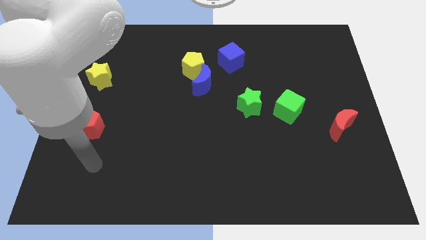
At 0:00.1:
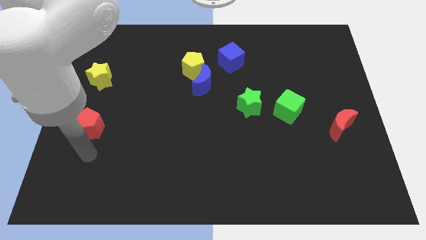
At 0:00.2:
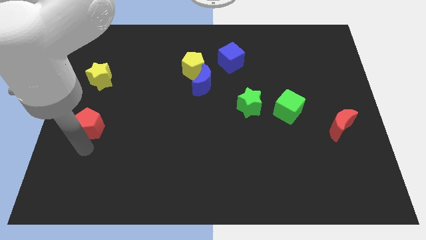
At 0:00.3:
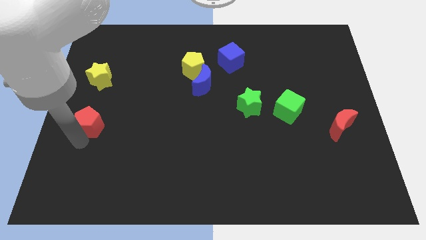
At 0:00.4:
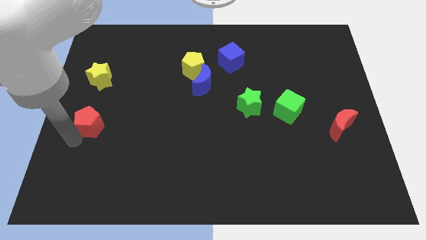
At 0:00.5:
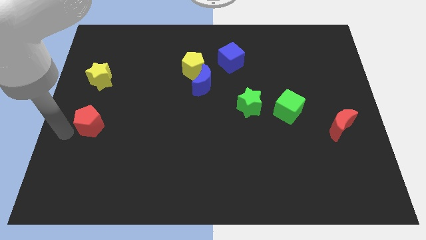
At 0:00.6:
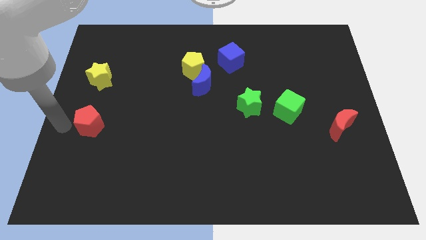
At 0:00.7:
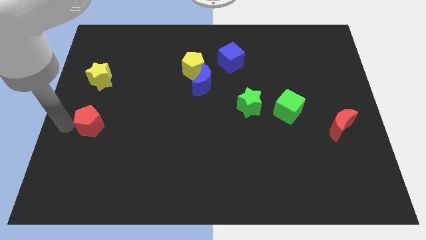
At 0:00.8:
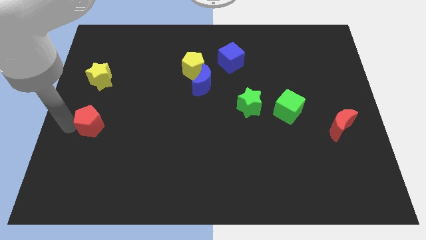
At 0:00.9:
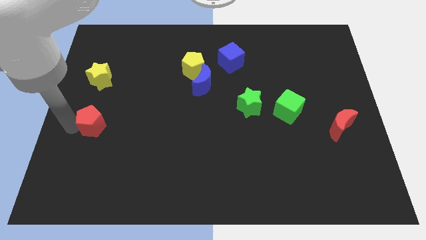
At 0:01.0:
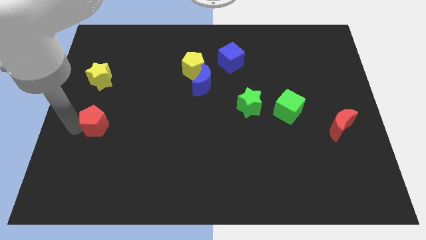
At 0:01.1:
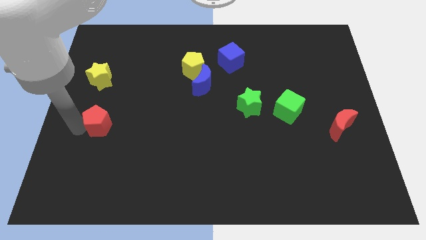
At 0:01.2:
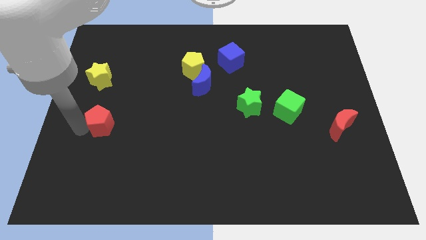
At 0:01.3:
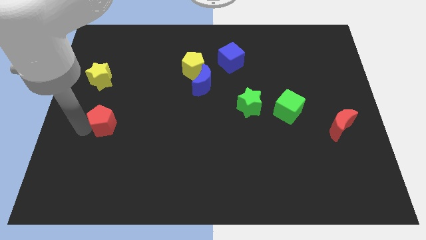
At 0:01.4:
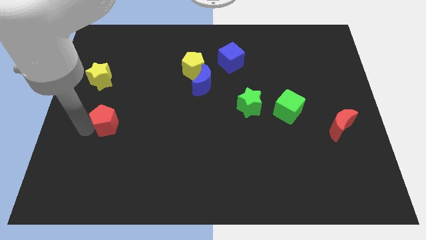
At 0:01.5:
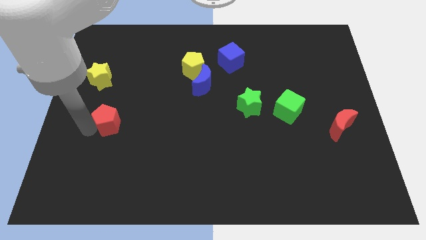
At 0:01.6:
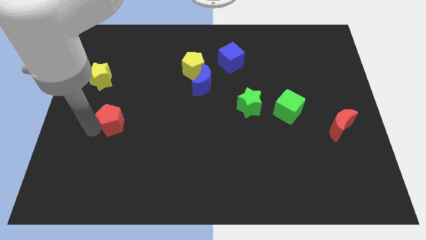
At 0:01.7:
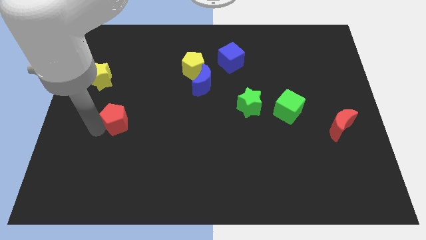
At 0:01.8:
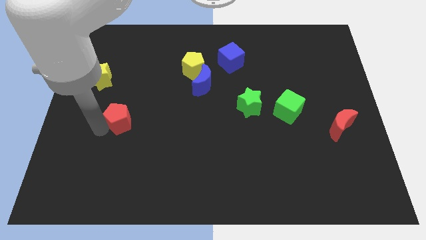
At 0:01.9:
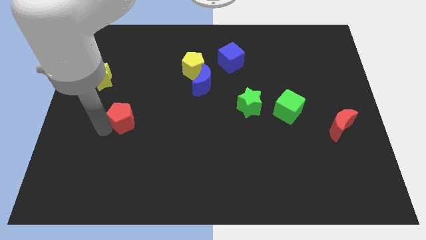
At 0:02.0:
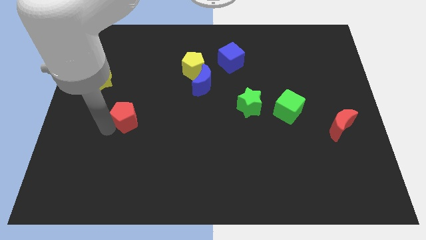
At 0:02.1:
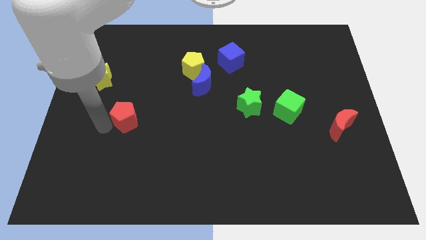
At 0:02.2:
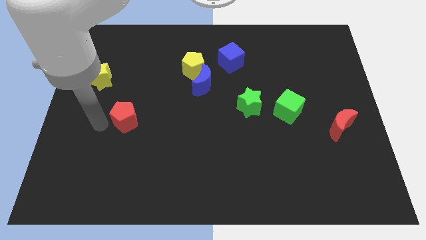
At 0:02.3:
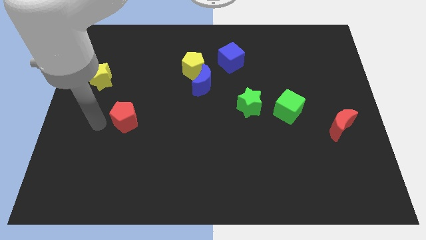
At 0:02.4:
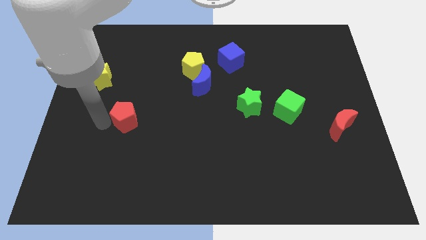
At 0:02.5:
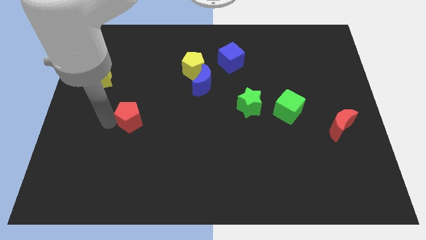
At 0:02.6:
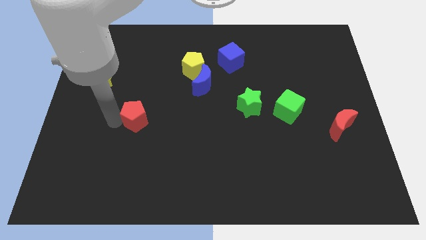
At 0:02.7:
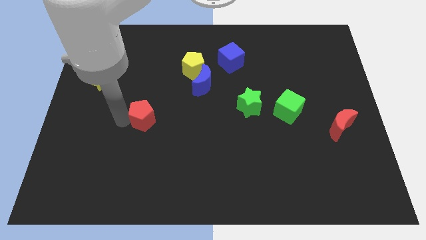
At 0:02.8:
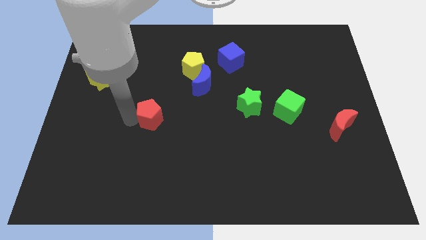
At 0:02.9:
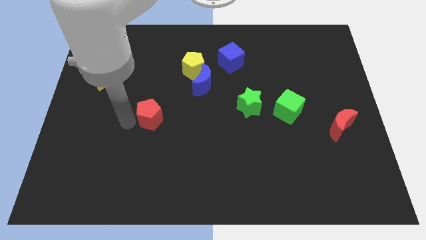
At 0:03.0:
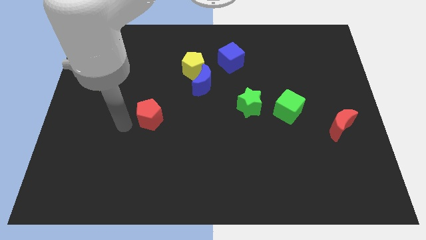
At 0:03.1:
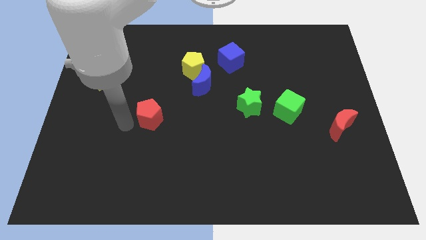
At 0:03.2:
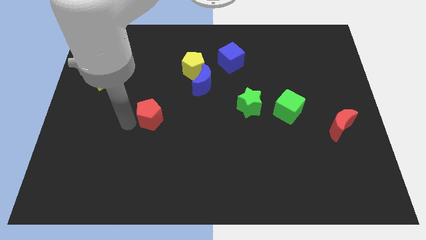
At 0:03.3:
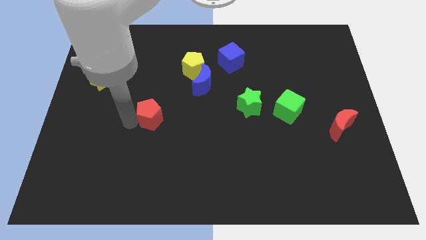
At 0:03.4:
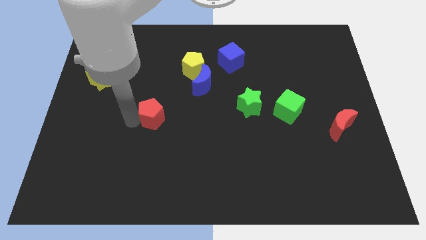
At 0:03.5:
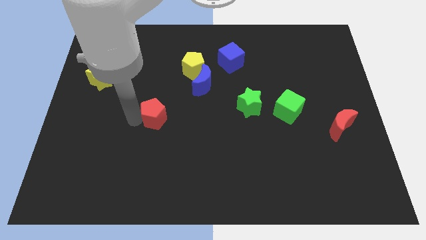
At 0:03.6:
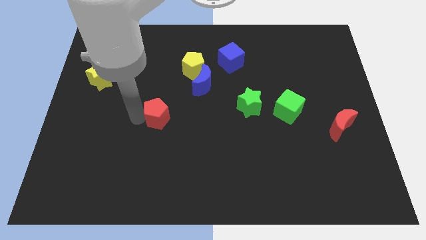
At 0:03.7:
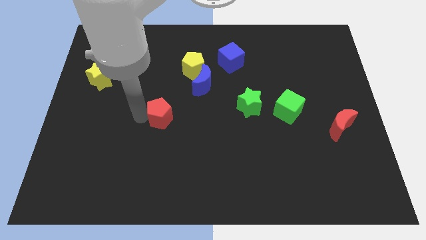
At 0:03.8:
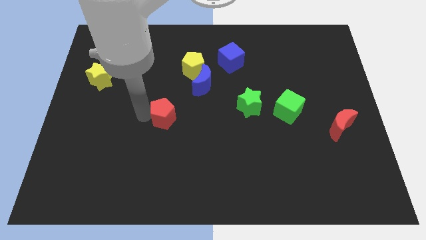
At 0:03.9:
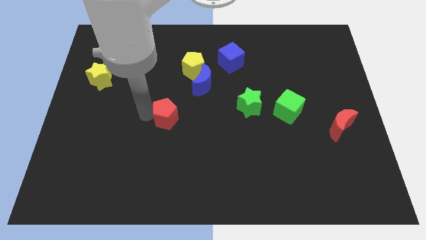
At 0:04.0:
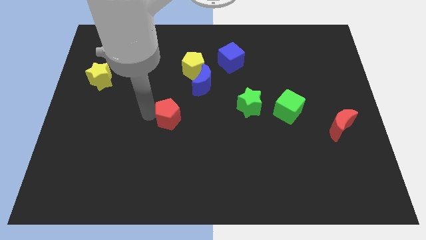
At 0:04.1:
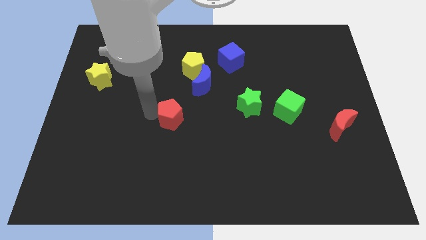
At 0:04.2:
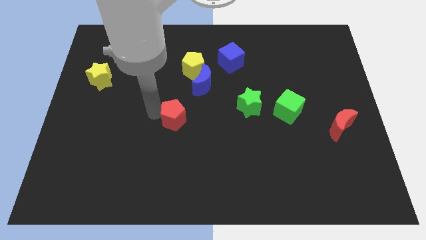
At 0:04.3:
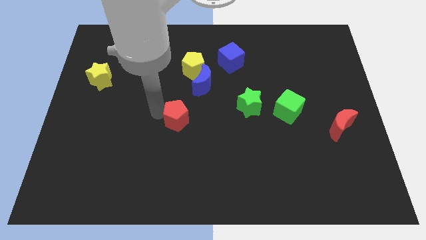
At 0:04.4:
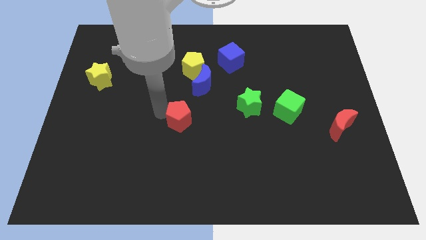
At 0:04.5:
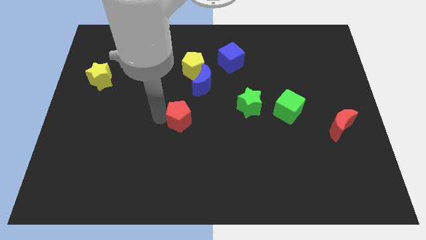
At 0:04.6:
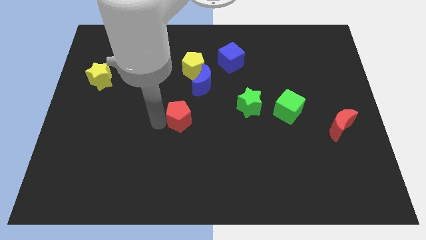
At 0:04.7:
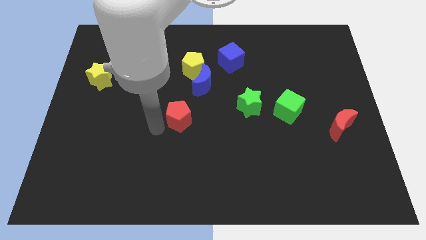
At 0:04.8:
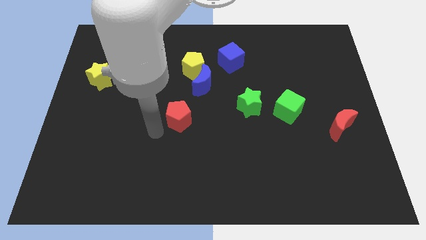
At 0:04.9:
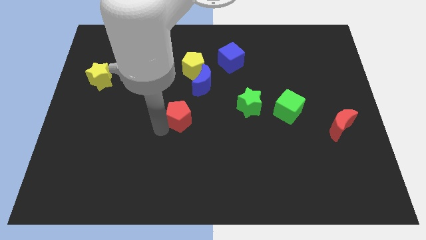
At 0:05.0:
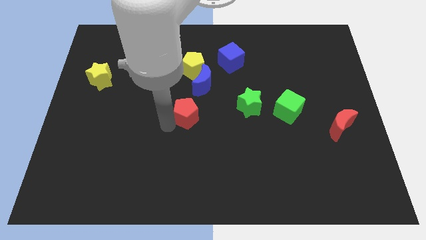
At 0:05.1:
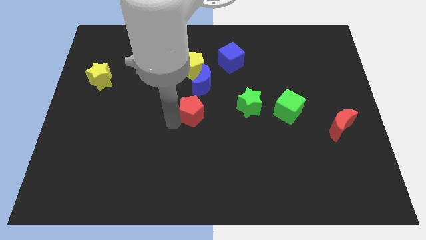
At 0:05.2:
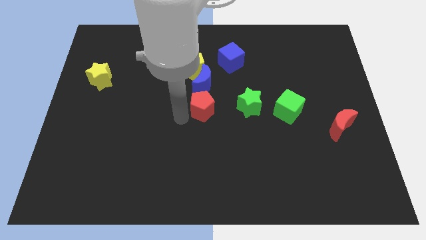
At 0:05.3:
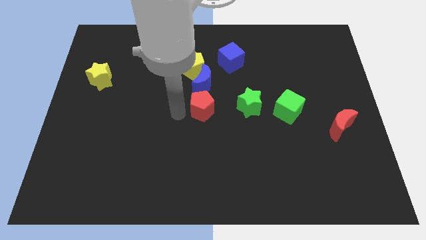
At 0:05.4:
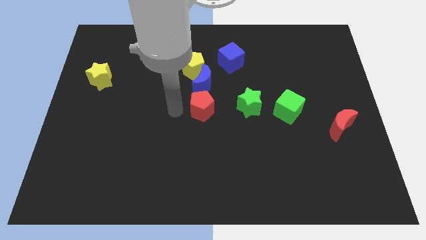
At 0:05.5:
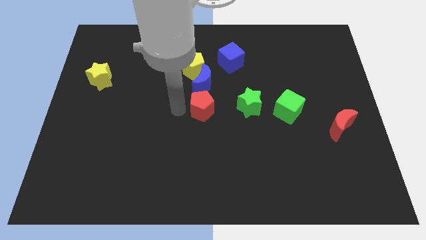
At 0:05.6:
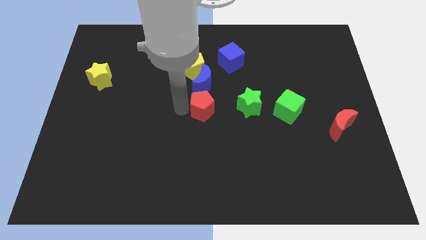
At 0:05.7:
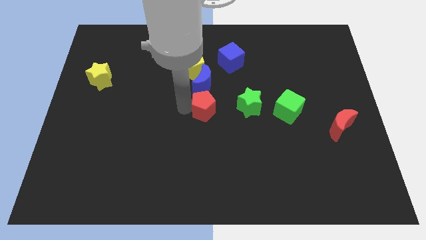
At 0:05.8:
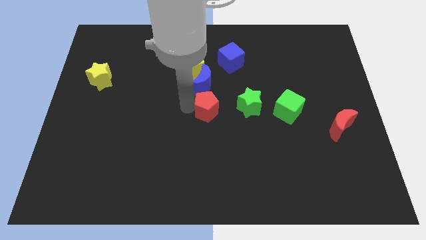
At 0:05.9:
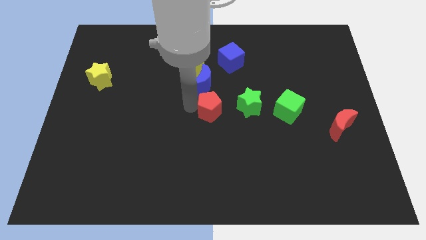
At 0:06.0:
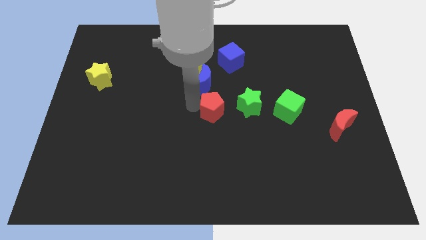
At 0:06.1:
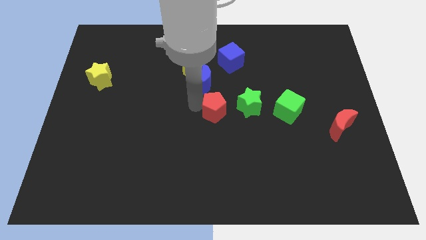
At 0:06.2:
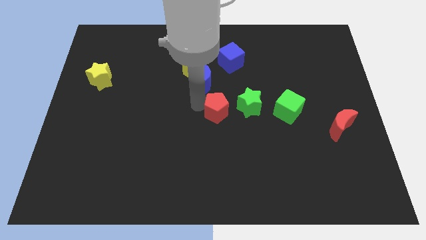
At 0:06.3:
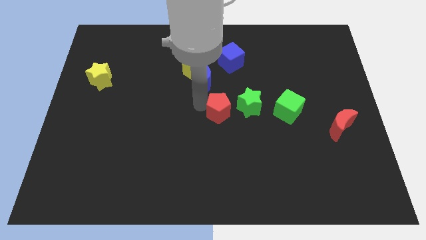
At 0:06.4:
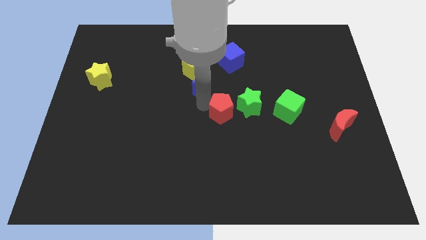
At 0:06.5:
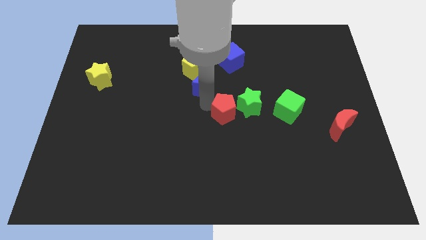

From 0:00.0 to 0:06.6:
move the red pentagon towards the green star

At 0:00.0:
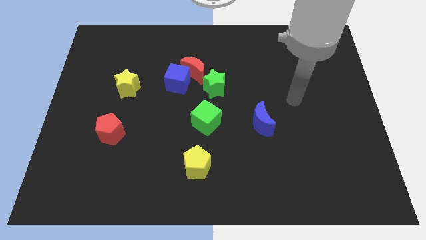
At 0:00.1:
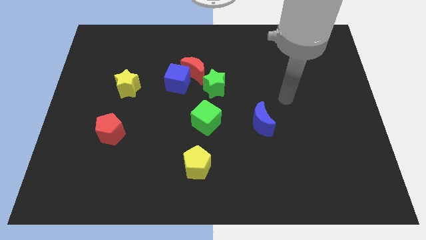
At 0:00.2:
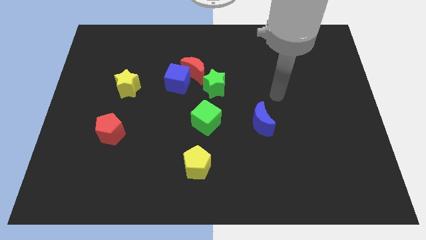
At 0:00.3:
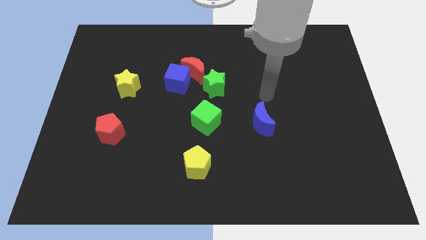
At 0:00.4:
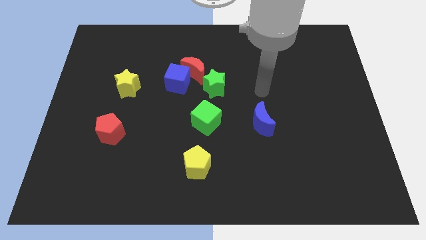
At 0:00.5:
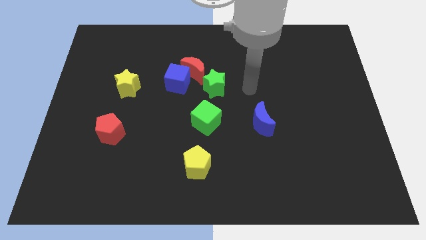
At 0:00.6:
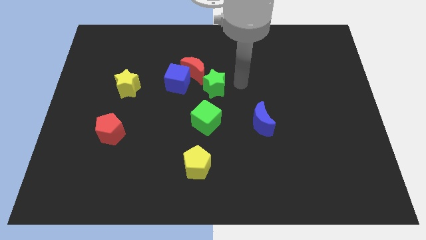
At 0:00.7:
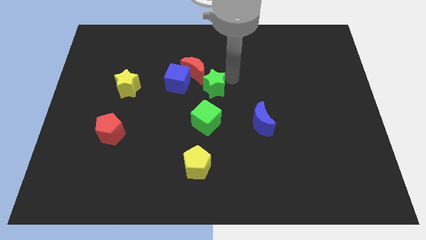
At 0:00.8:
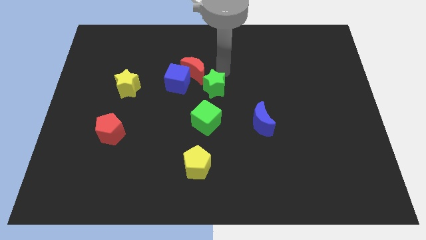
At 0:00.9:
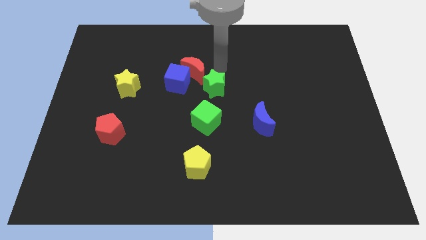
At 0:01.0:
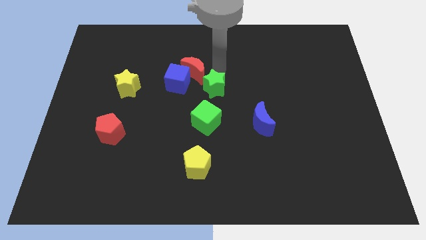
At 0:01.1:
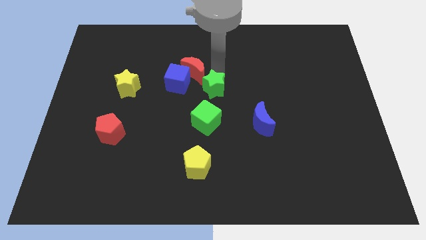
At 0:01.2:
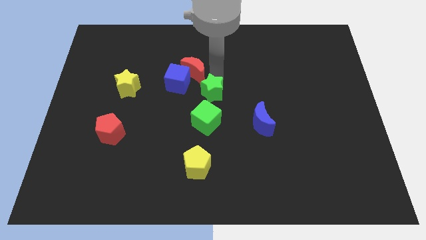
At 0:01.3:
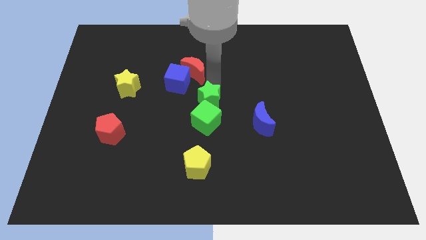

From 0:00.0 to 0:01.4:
put the green star to the green cube
